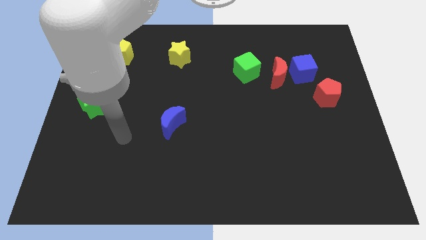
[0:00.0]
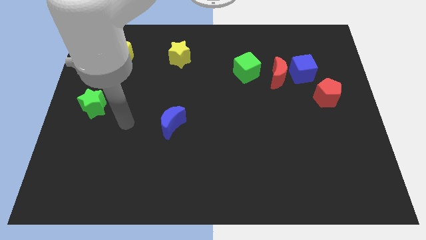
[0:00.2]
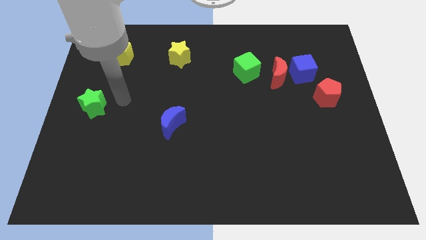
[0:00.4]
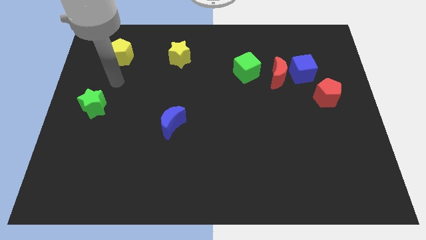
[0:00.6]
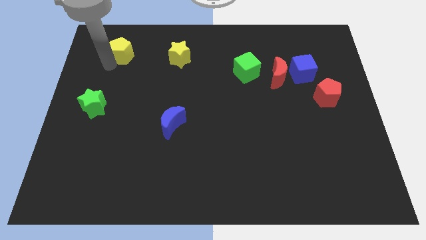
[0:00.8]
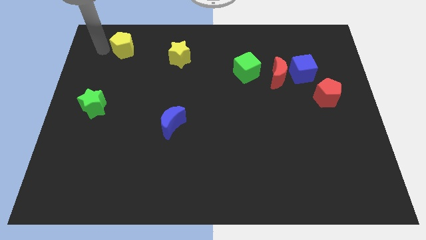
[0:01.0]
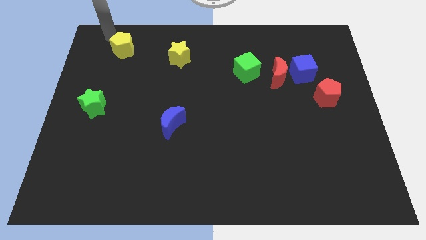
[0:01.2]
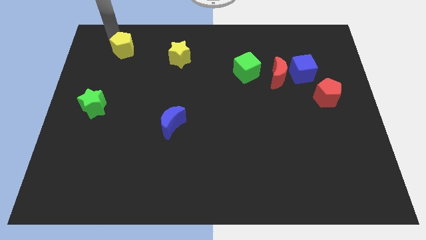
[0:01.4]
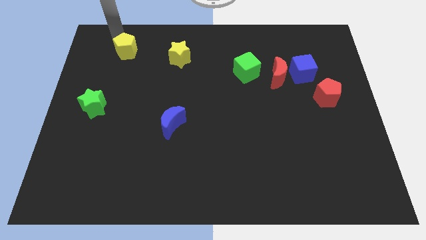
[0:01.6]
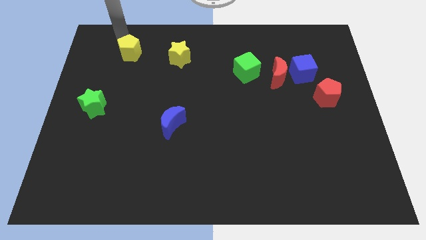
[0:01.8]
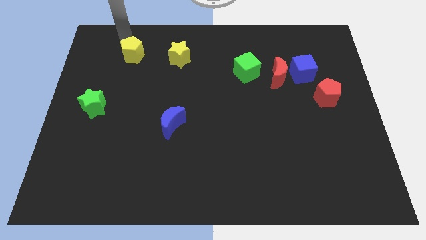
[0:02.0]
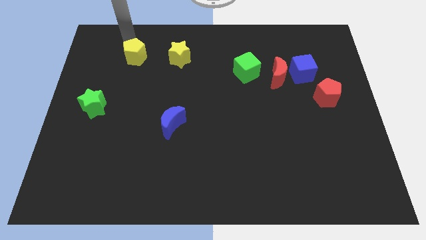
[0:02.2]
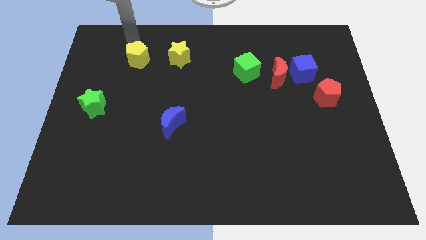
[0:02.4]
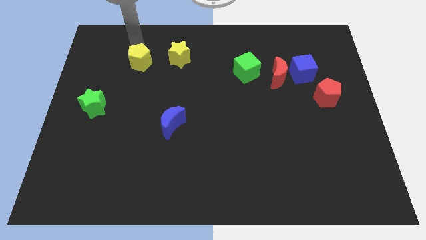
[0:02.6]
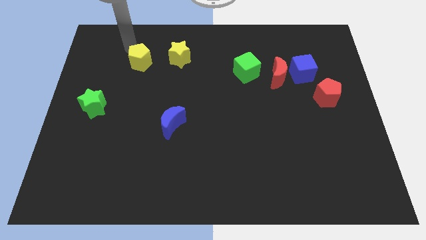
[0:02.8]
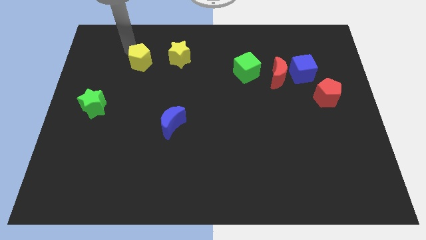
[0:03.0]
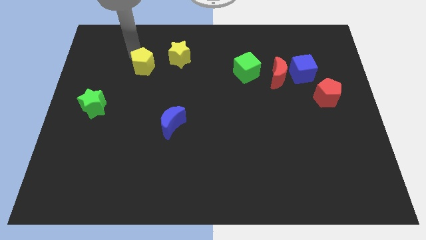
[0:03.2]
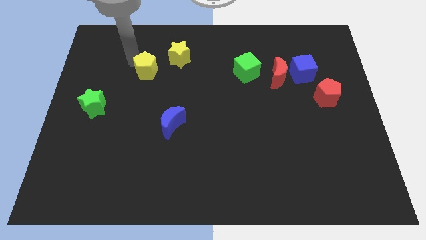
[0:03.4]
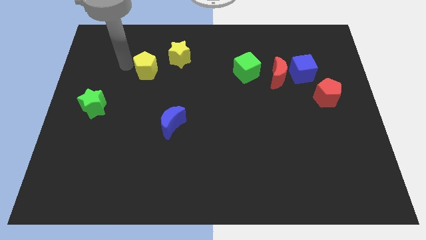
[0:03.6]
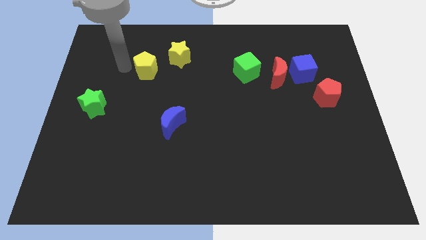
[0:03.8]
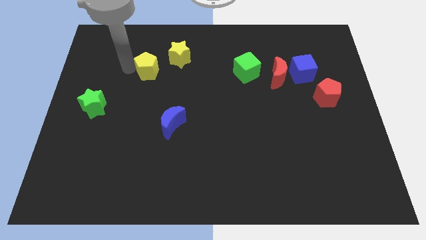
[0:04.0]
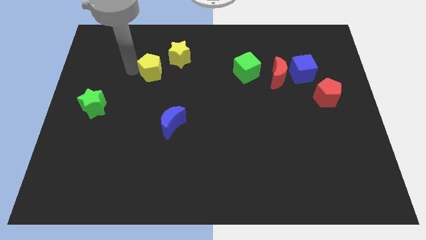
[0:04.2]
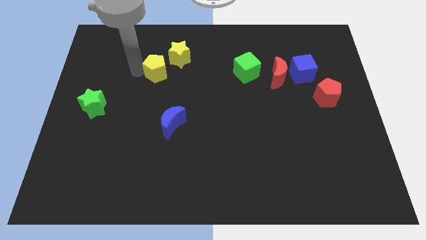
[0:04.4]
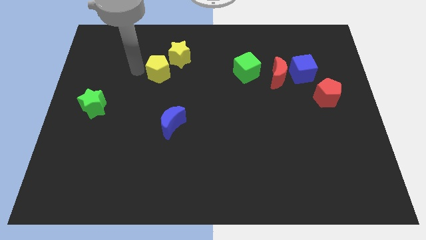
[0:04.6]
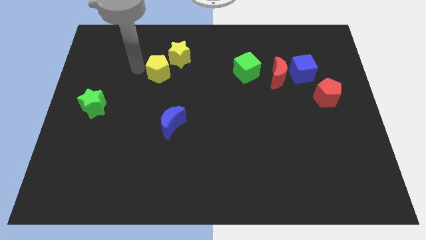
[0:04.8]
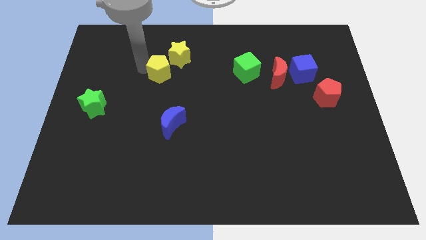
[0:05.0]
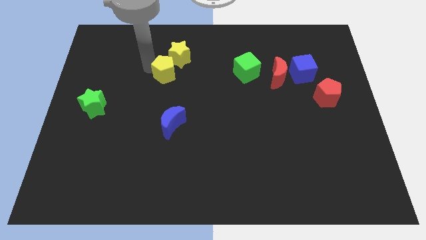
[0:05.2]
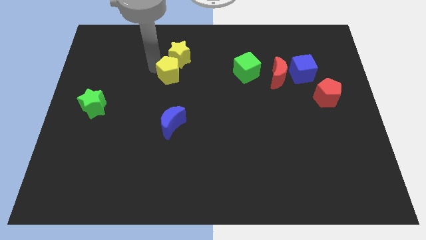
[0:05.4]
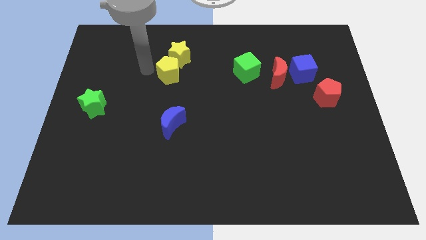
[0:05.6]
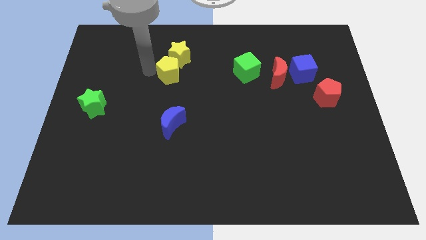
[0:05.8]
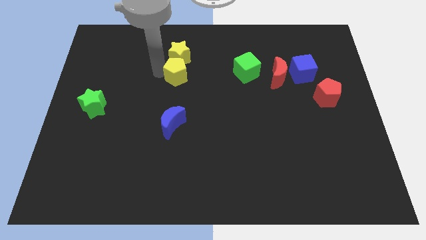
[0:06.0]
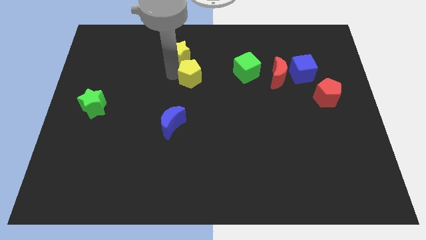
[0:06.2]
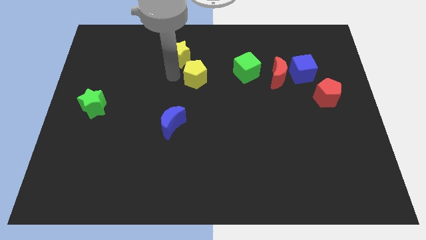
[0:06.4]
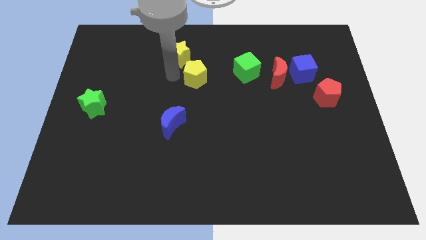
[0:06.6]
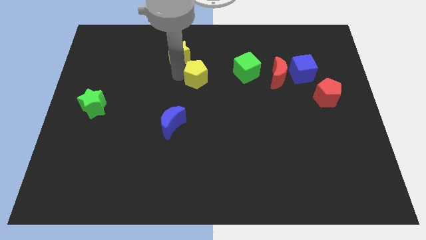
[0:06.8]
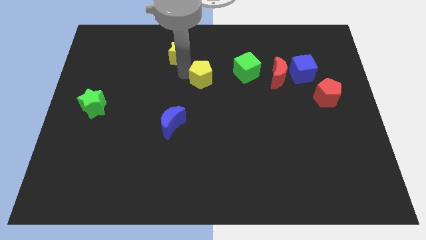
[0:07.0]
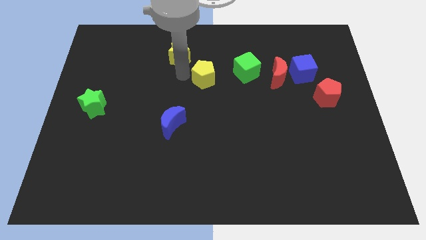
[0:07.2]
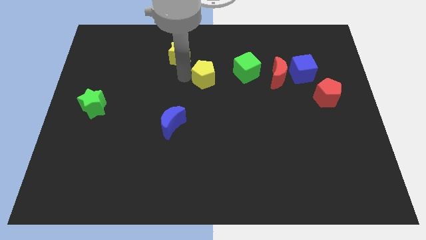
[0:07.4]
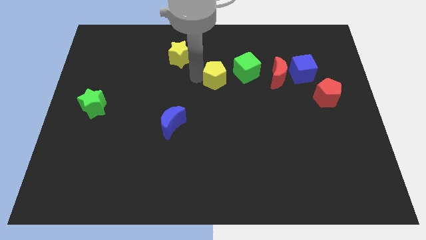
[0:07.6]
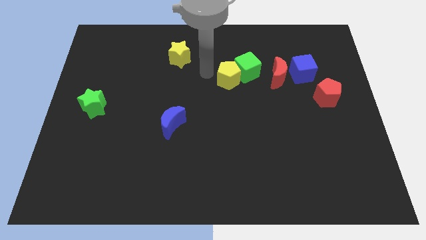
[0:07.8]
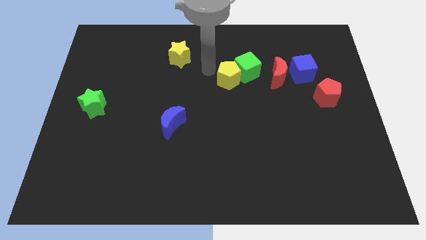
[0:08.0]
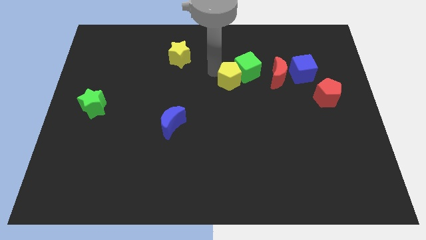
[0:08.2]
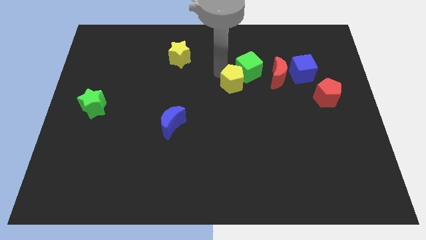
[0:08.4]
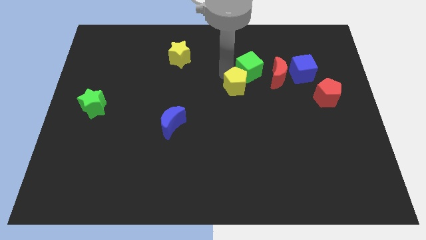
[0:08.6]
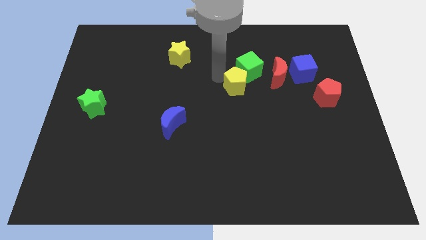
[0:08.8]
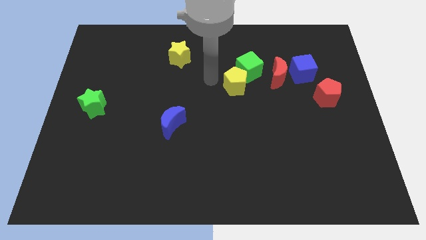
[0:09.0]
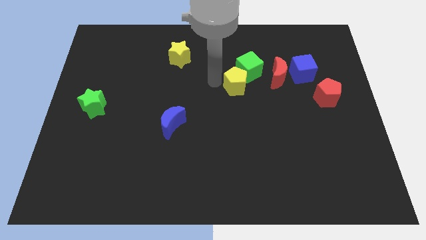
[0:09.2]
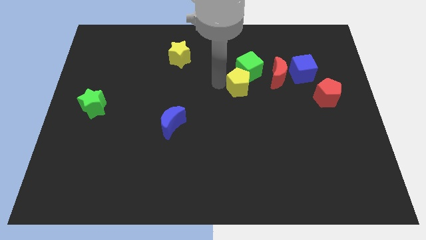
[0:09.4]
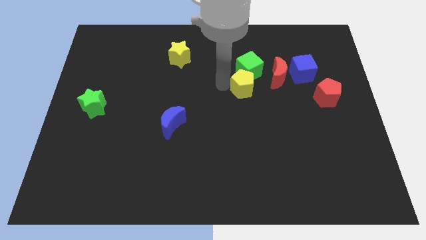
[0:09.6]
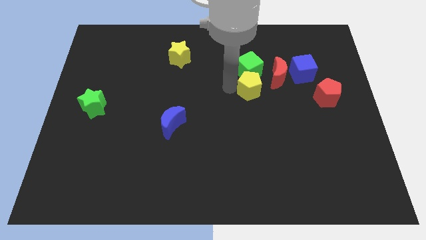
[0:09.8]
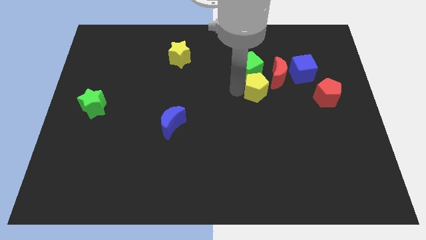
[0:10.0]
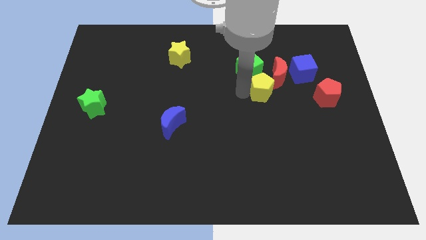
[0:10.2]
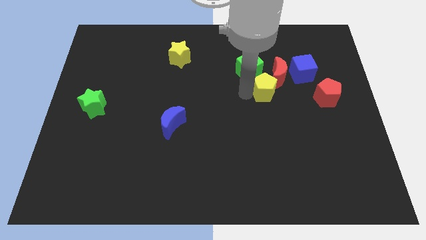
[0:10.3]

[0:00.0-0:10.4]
move the yellow pentagon close to the red moon

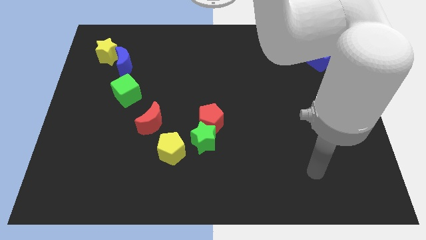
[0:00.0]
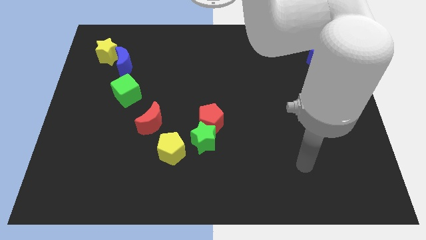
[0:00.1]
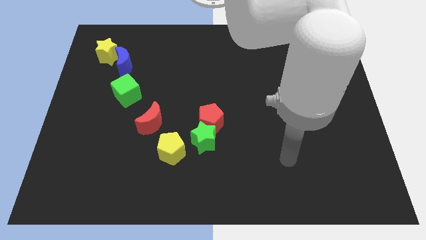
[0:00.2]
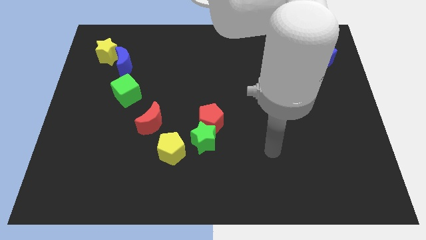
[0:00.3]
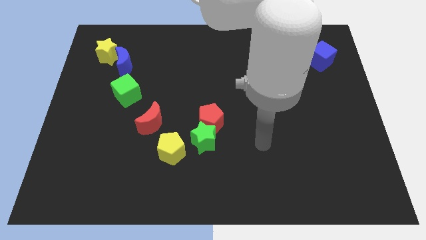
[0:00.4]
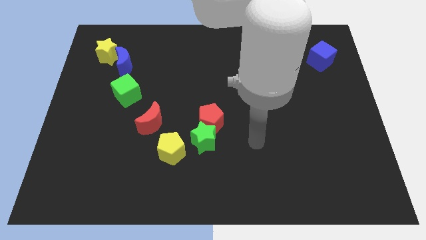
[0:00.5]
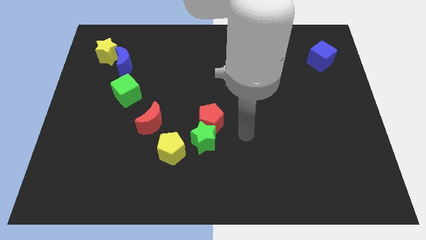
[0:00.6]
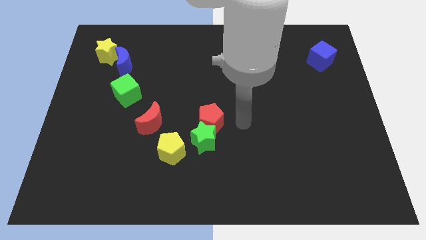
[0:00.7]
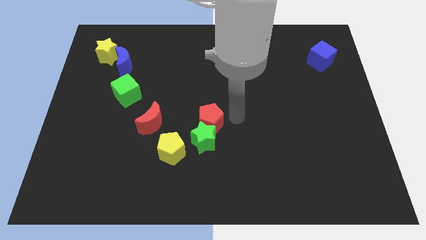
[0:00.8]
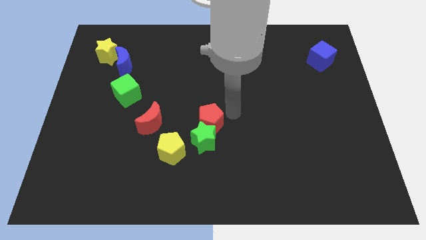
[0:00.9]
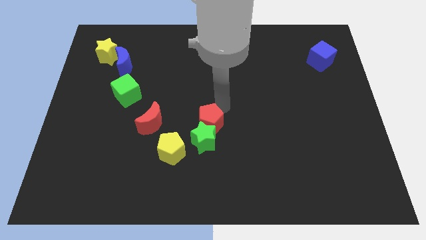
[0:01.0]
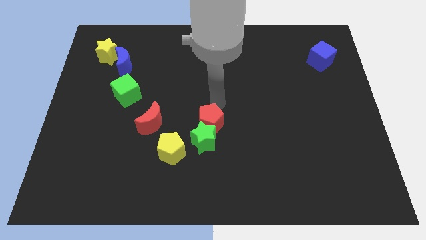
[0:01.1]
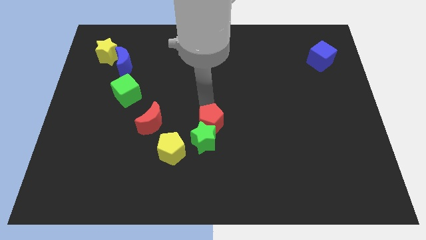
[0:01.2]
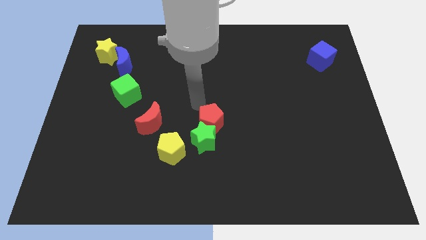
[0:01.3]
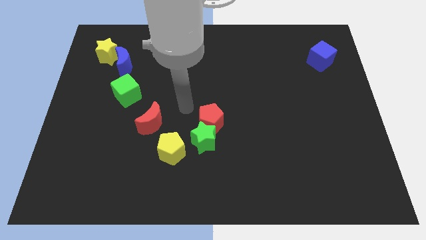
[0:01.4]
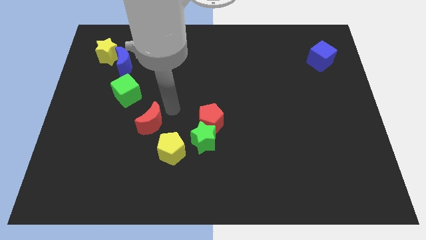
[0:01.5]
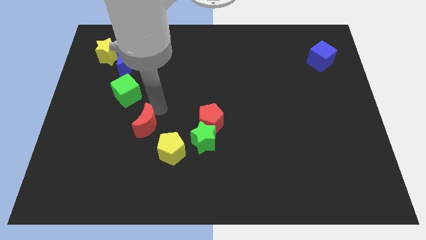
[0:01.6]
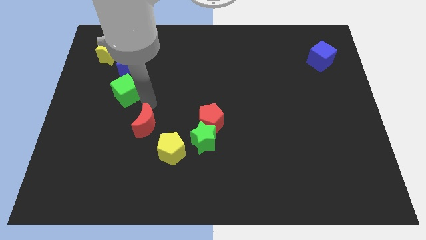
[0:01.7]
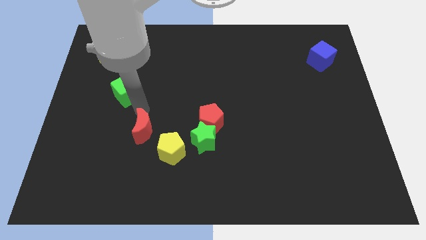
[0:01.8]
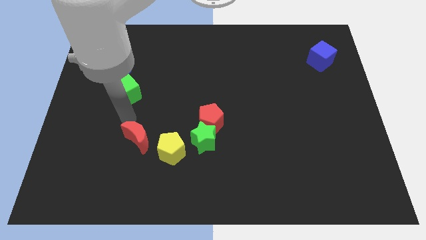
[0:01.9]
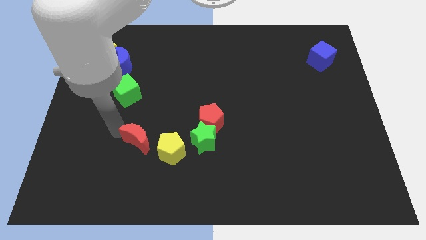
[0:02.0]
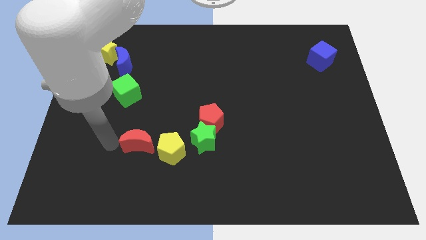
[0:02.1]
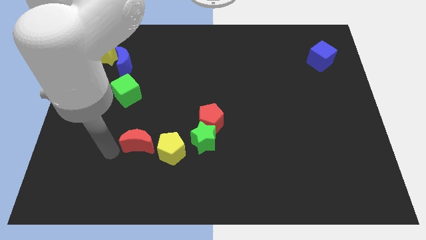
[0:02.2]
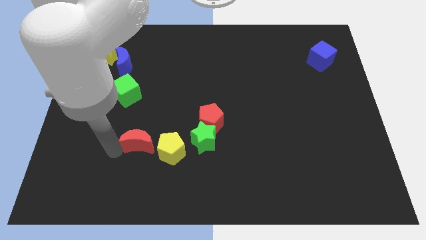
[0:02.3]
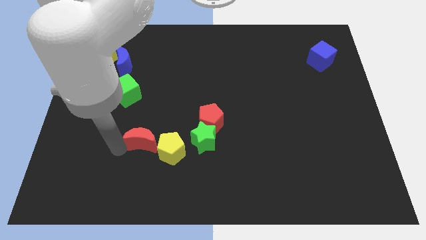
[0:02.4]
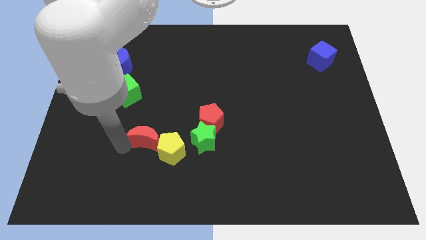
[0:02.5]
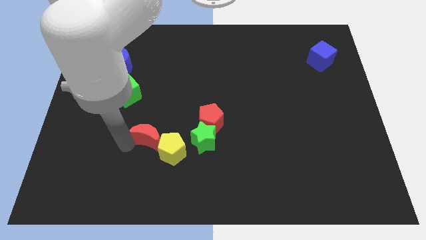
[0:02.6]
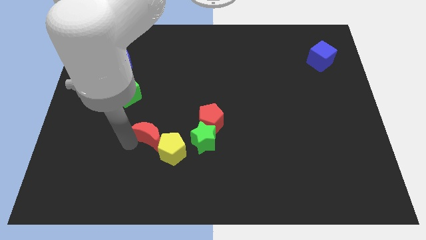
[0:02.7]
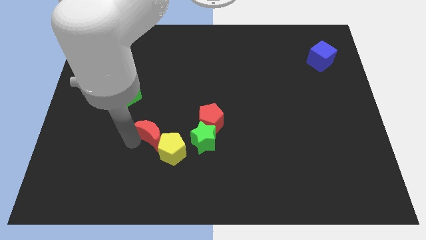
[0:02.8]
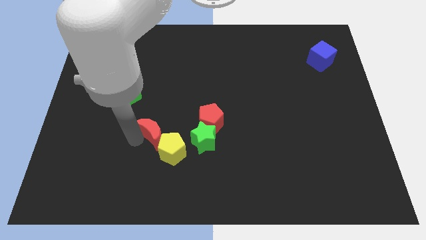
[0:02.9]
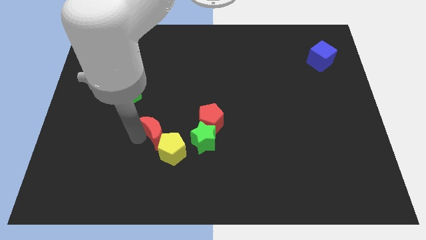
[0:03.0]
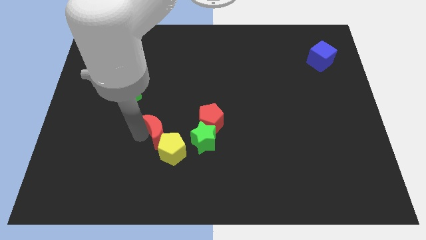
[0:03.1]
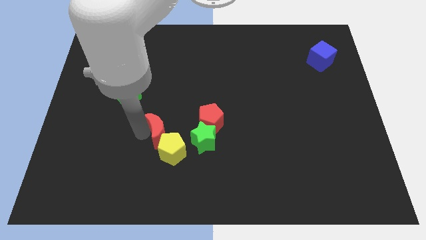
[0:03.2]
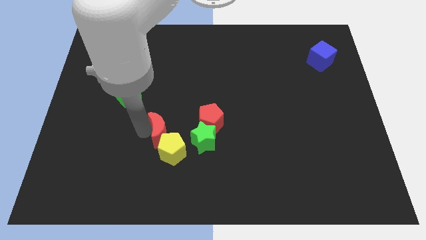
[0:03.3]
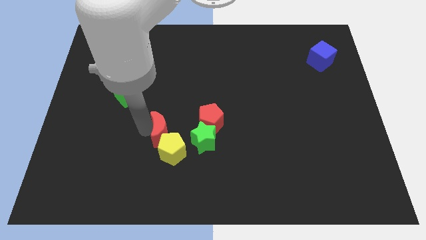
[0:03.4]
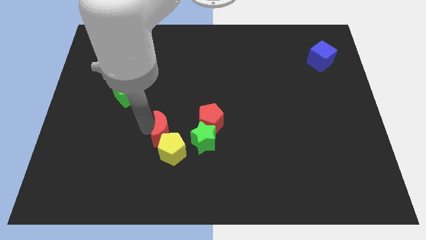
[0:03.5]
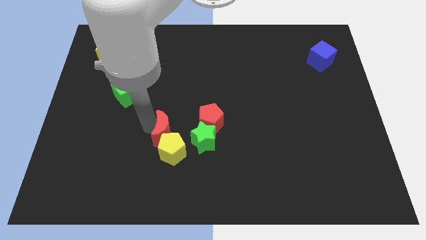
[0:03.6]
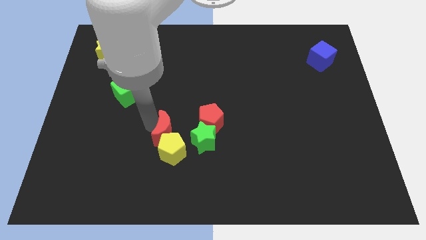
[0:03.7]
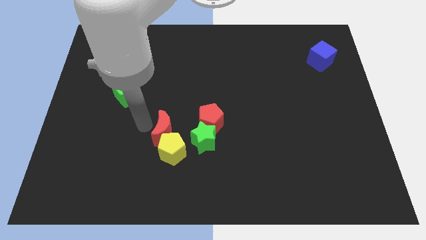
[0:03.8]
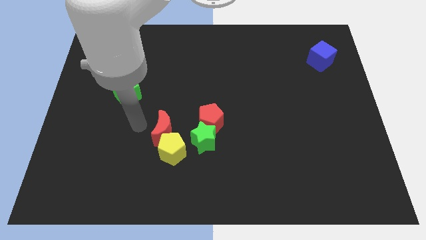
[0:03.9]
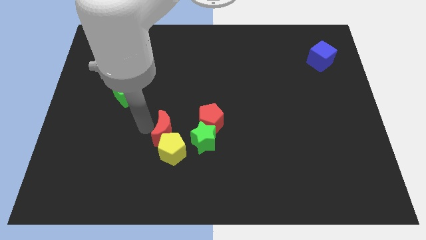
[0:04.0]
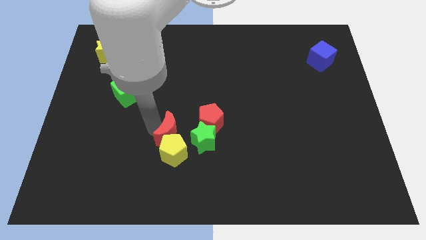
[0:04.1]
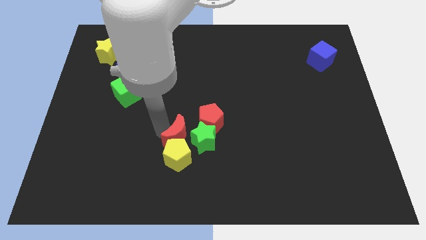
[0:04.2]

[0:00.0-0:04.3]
push the red moon towards the green star
